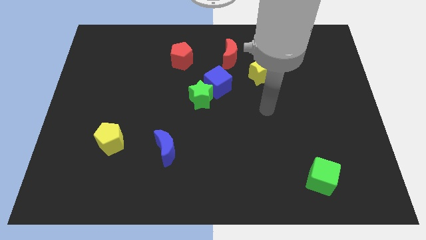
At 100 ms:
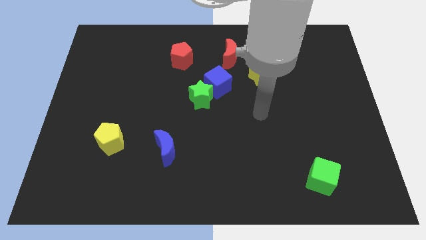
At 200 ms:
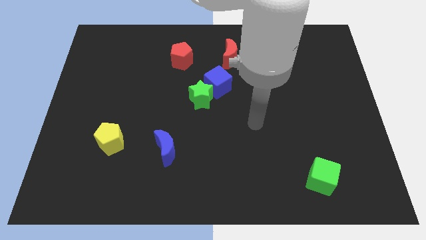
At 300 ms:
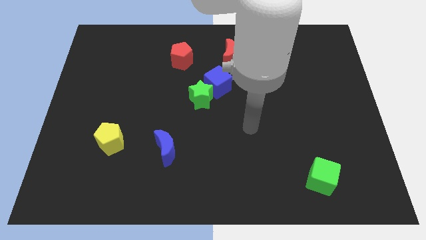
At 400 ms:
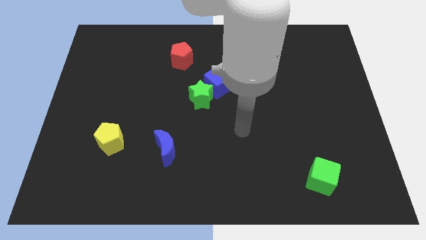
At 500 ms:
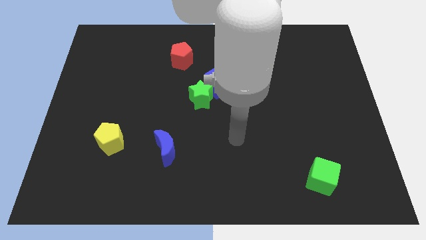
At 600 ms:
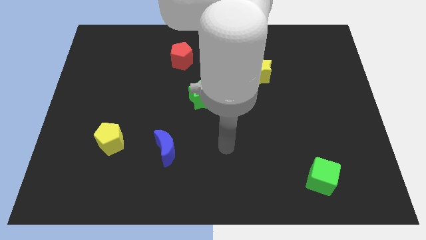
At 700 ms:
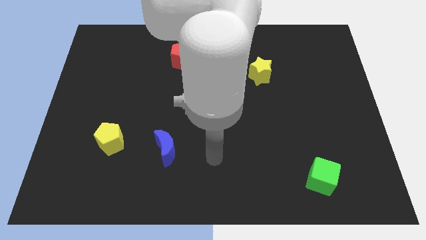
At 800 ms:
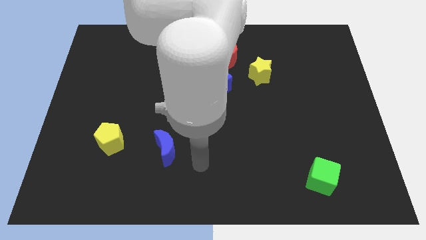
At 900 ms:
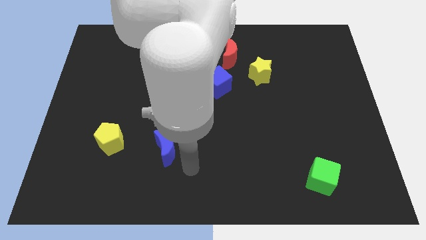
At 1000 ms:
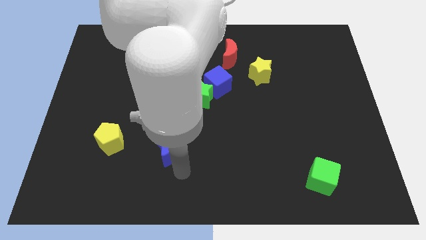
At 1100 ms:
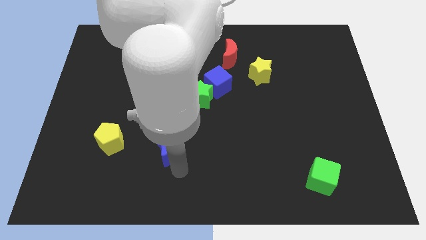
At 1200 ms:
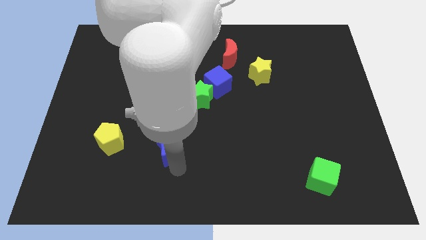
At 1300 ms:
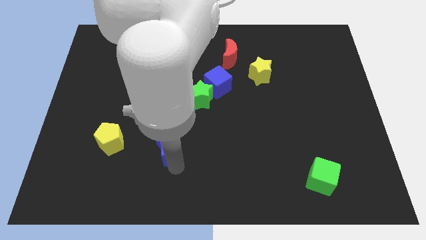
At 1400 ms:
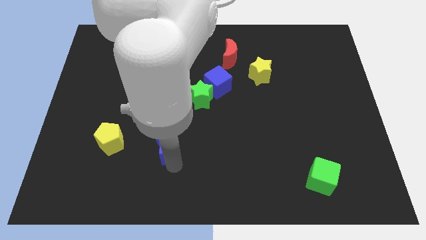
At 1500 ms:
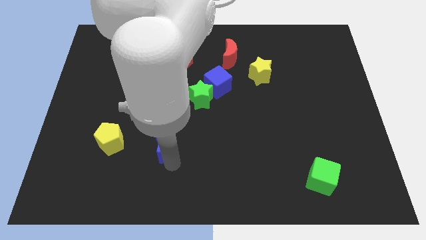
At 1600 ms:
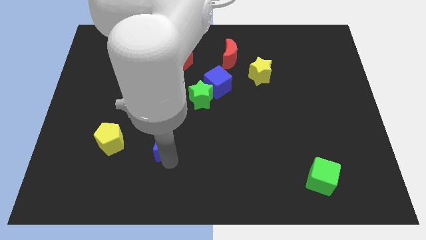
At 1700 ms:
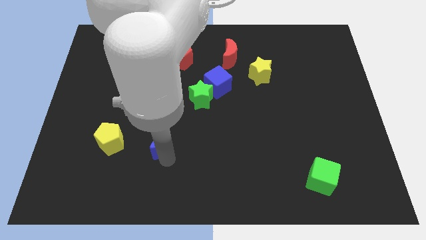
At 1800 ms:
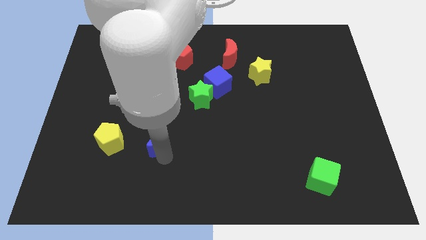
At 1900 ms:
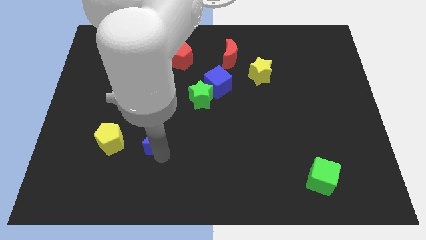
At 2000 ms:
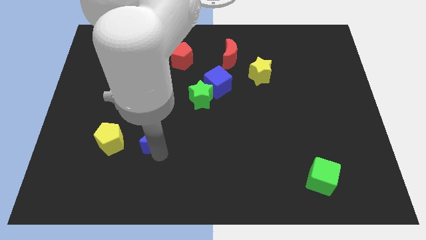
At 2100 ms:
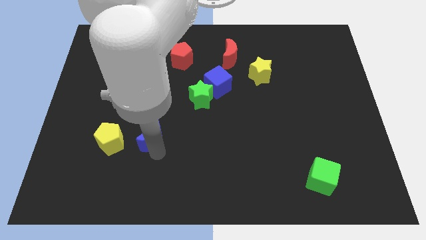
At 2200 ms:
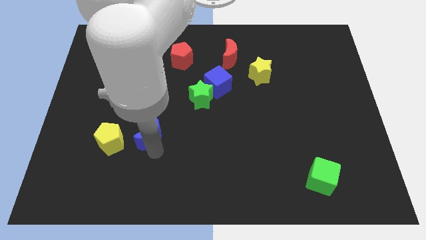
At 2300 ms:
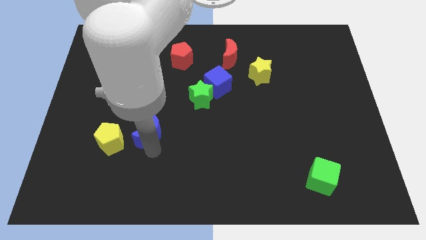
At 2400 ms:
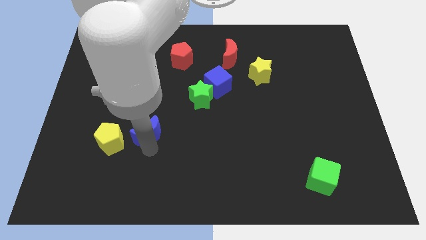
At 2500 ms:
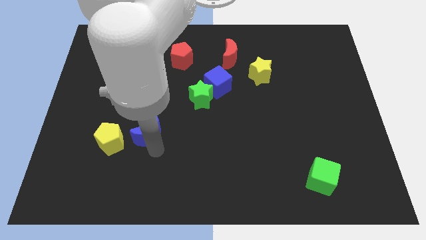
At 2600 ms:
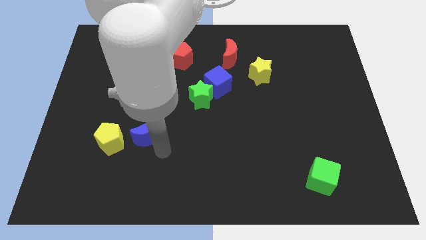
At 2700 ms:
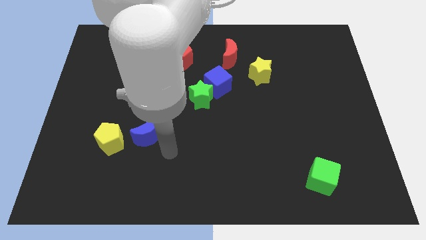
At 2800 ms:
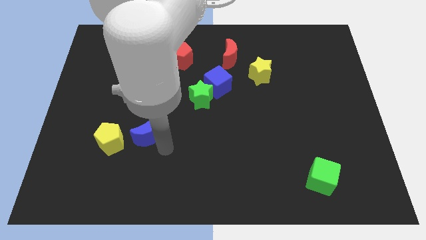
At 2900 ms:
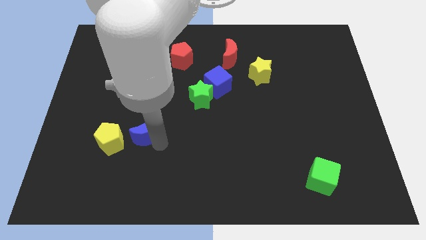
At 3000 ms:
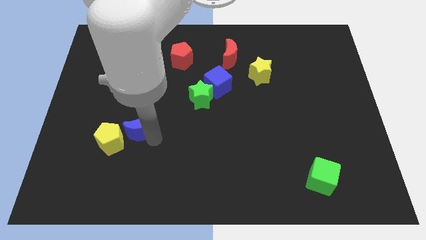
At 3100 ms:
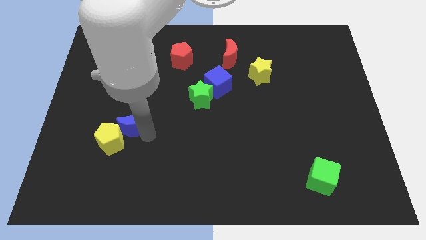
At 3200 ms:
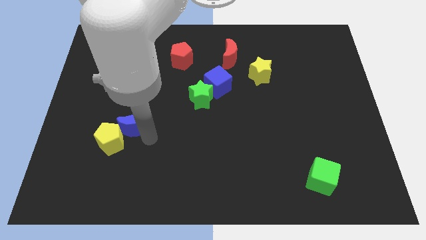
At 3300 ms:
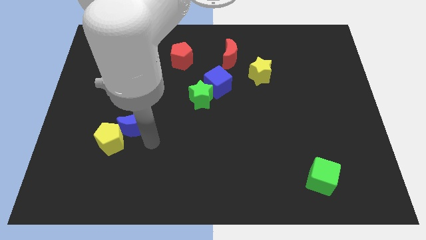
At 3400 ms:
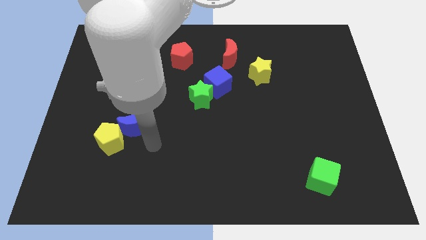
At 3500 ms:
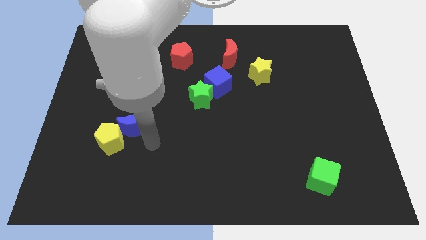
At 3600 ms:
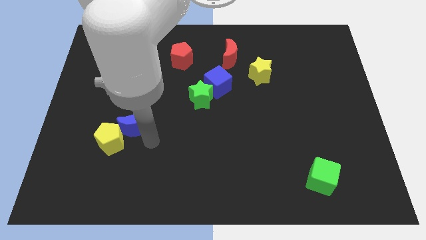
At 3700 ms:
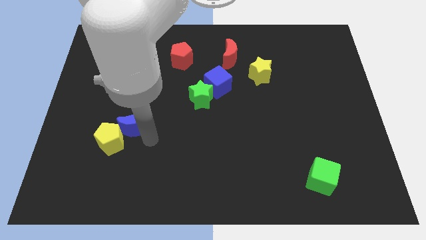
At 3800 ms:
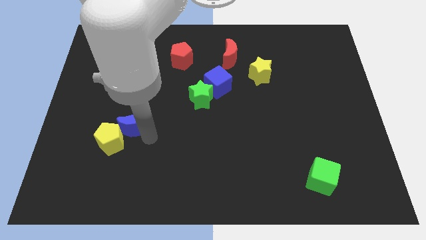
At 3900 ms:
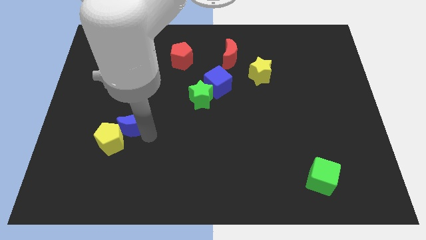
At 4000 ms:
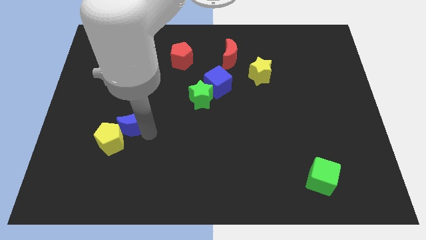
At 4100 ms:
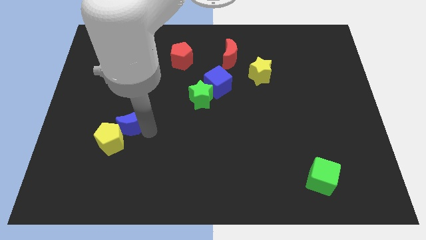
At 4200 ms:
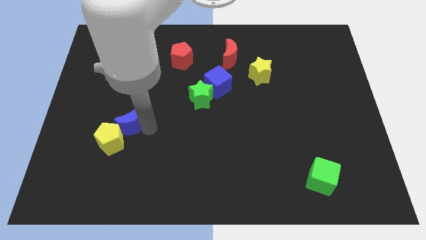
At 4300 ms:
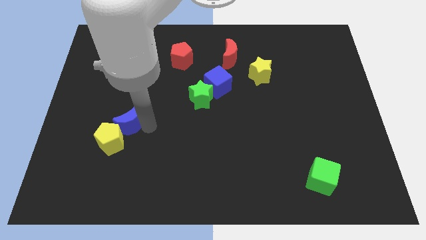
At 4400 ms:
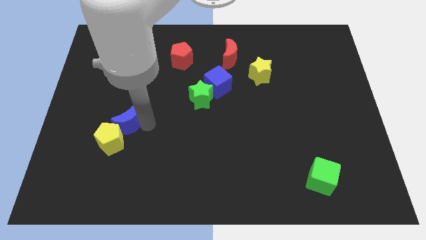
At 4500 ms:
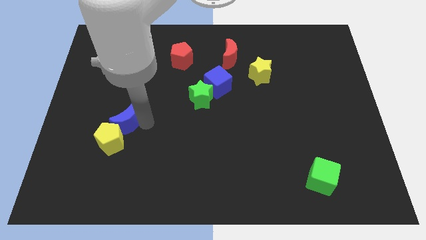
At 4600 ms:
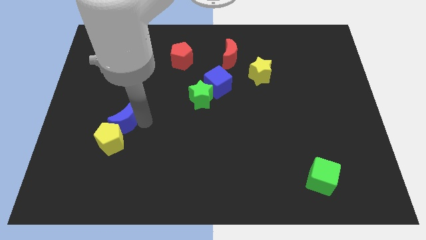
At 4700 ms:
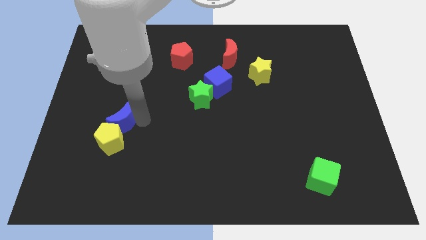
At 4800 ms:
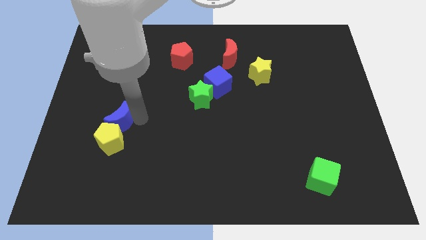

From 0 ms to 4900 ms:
move the blue moon to the top left side of the yellow pentagon

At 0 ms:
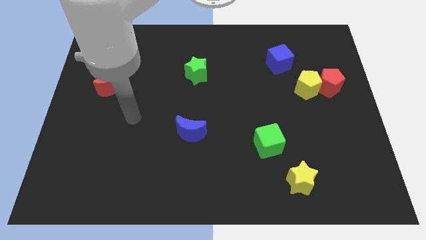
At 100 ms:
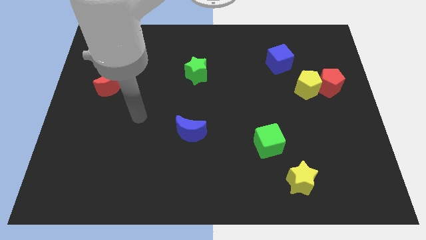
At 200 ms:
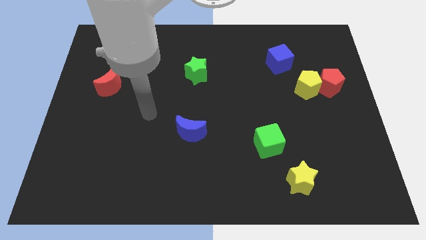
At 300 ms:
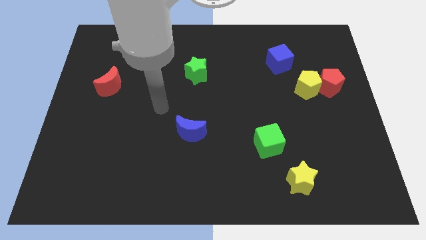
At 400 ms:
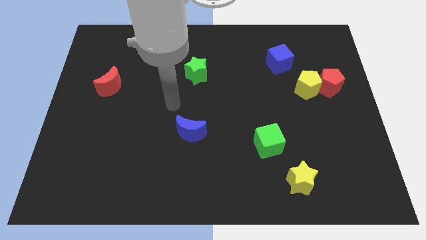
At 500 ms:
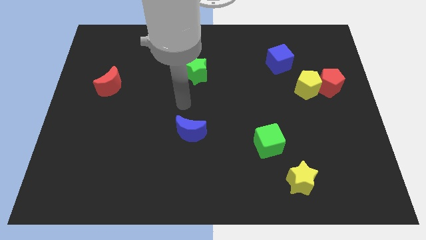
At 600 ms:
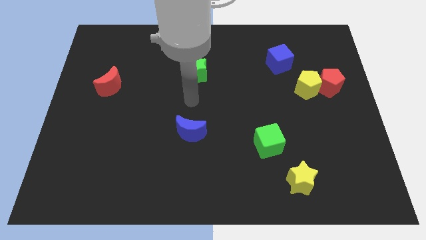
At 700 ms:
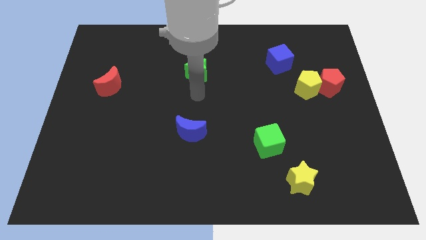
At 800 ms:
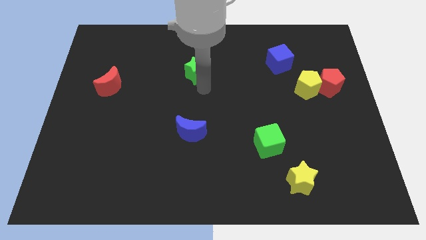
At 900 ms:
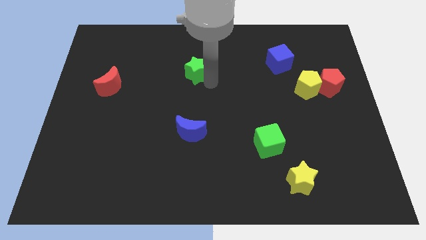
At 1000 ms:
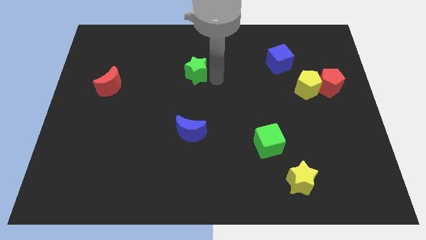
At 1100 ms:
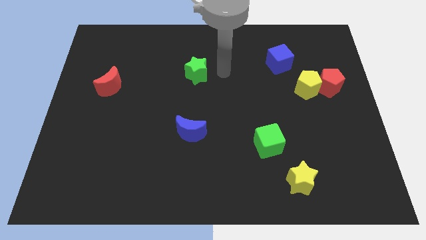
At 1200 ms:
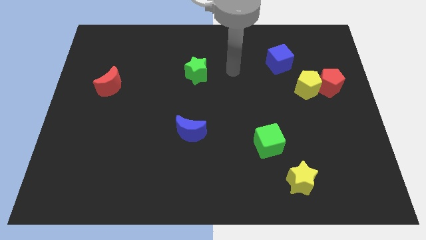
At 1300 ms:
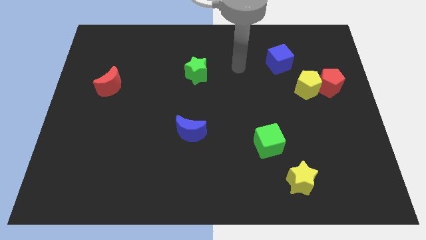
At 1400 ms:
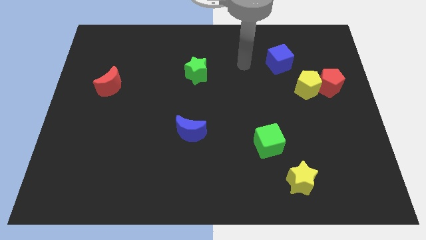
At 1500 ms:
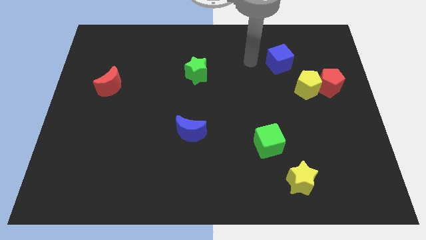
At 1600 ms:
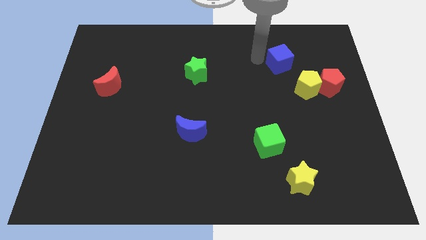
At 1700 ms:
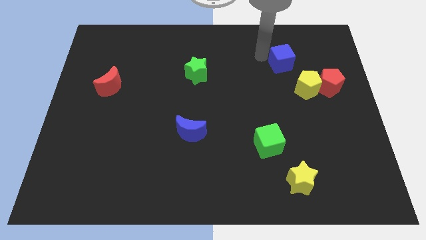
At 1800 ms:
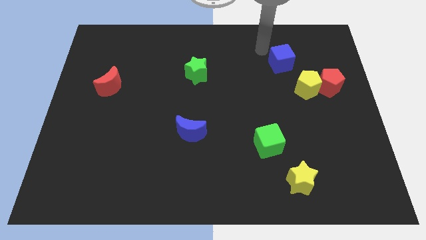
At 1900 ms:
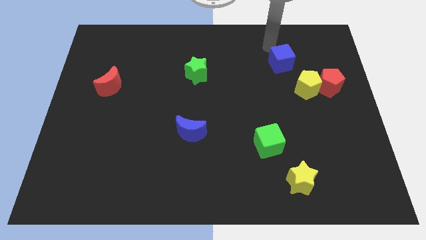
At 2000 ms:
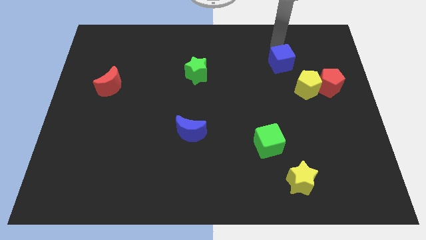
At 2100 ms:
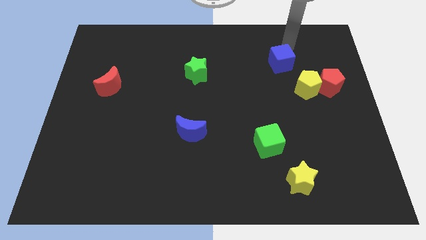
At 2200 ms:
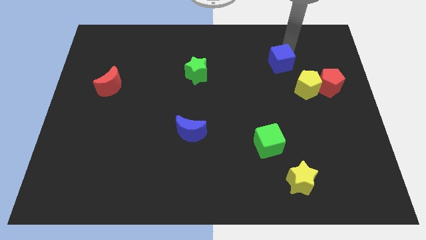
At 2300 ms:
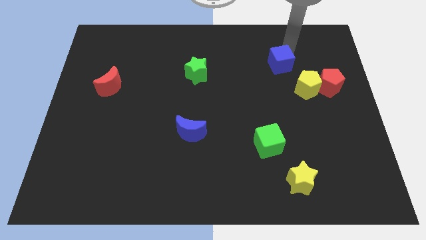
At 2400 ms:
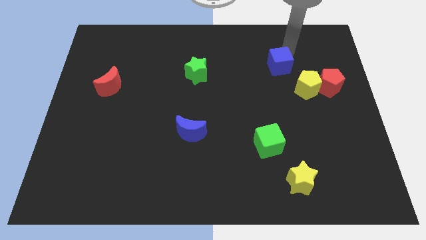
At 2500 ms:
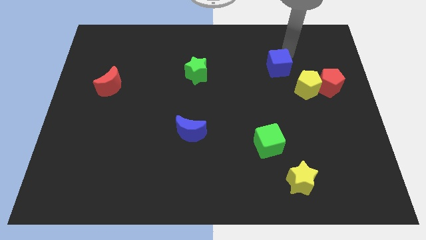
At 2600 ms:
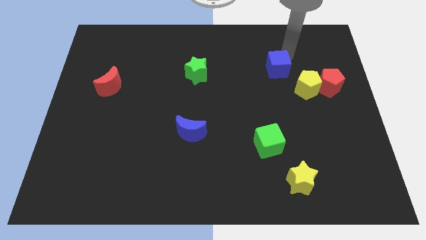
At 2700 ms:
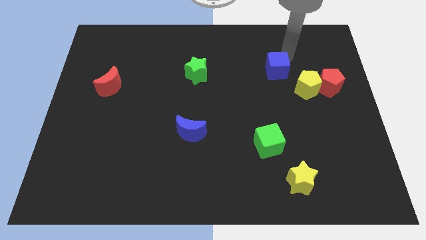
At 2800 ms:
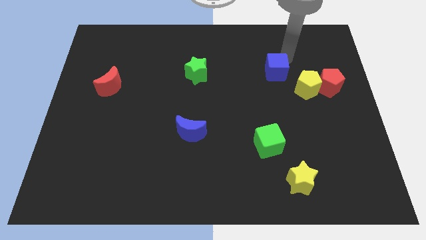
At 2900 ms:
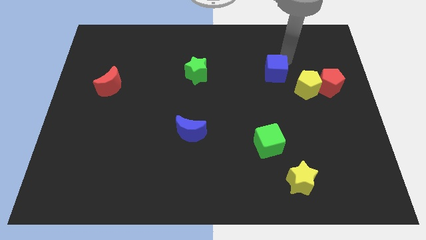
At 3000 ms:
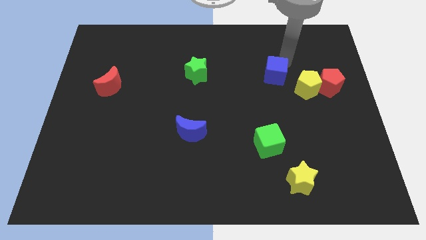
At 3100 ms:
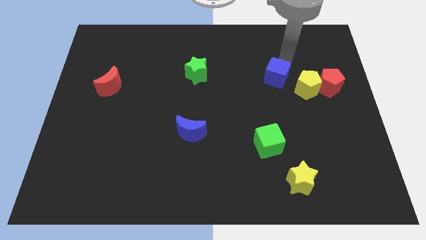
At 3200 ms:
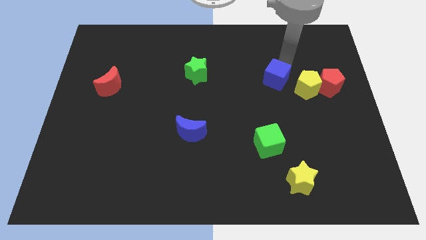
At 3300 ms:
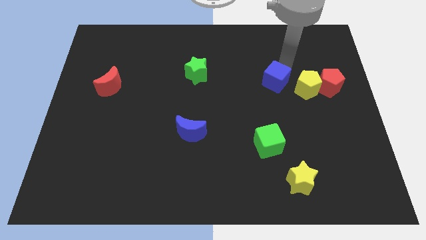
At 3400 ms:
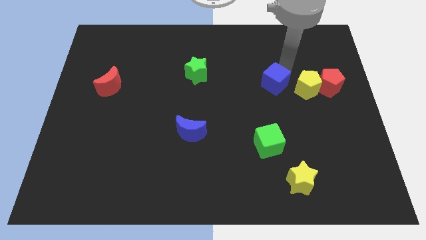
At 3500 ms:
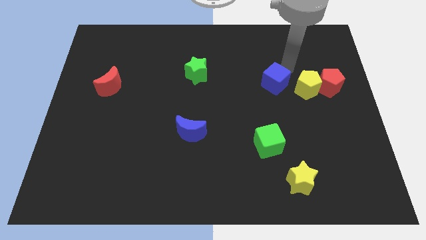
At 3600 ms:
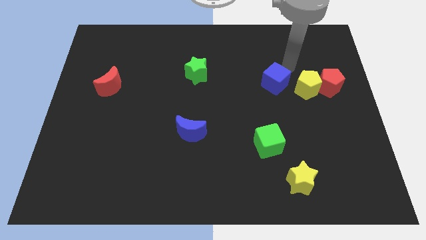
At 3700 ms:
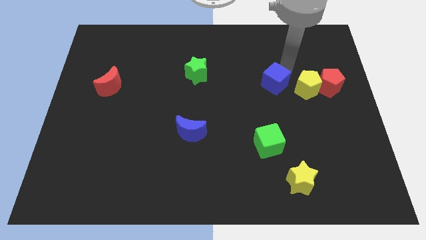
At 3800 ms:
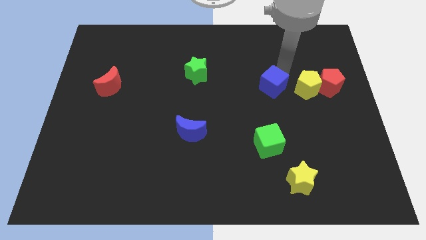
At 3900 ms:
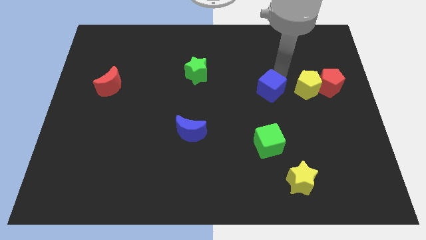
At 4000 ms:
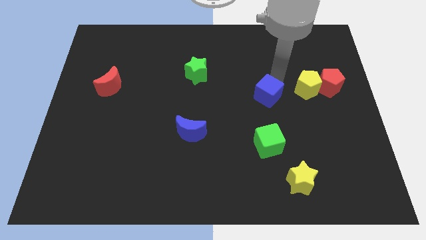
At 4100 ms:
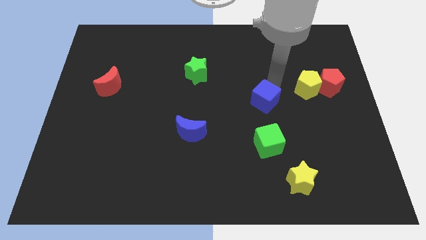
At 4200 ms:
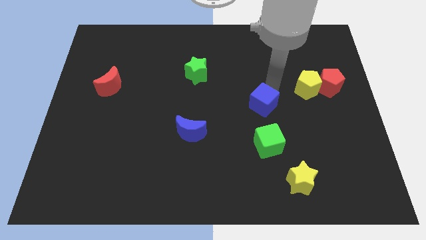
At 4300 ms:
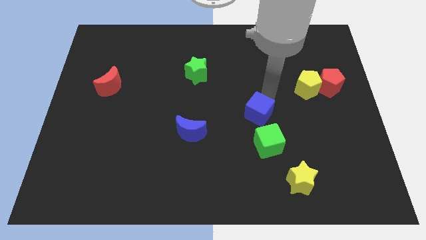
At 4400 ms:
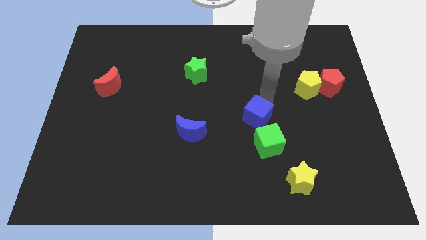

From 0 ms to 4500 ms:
slide the blue cube diagonally up and to the left of the green cube
